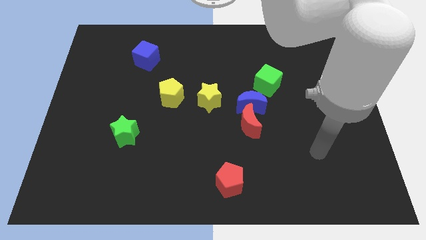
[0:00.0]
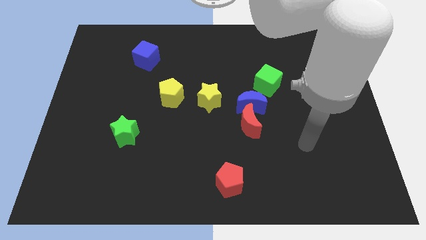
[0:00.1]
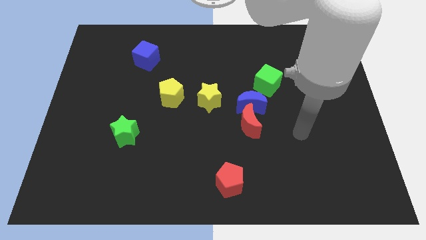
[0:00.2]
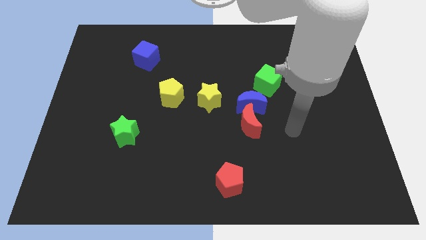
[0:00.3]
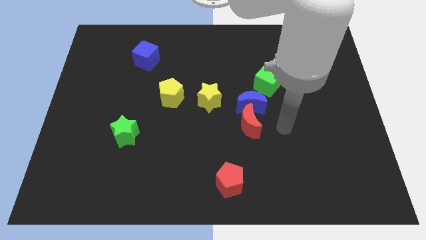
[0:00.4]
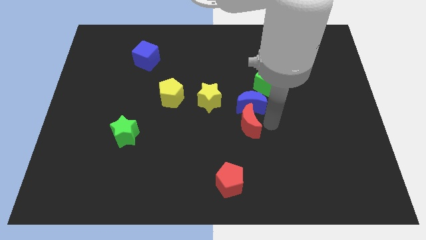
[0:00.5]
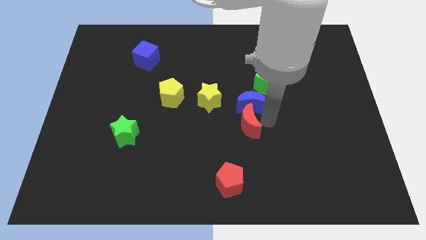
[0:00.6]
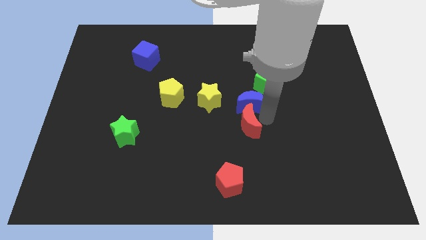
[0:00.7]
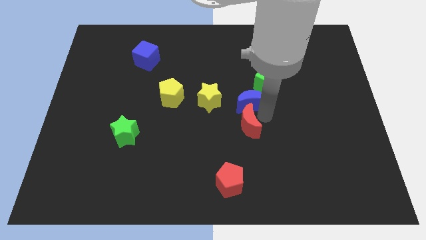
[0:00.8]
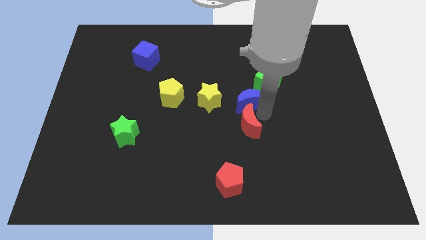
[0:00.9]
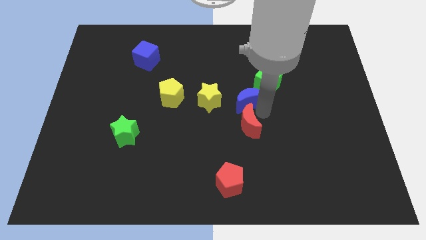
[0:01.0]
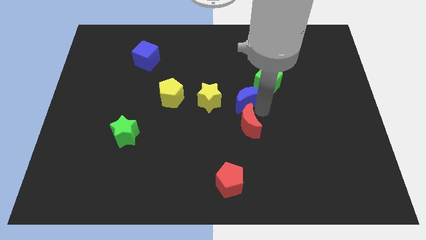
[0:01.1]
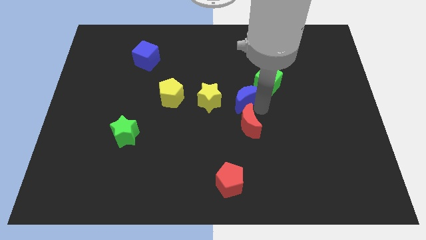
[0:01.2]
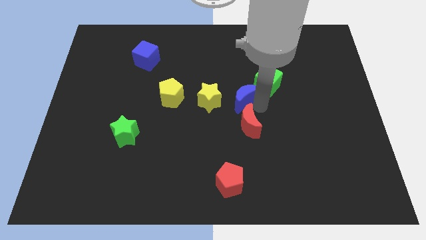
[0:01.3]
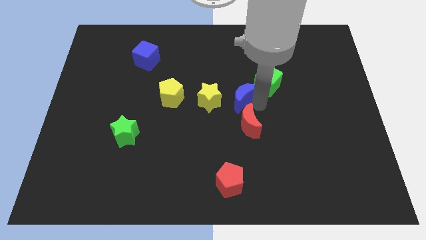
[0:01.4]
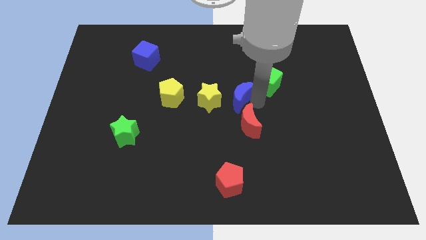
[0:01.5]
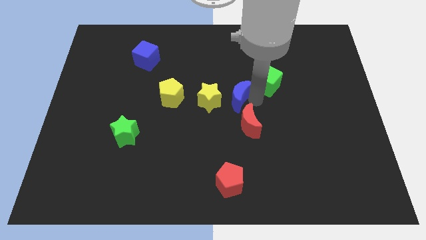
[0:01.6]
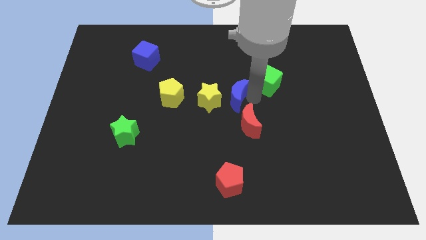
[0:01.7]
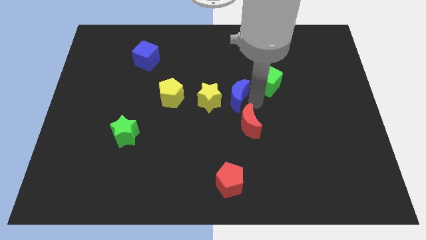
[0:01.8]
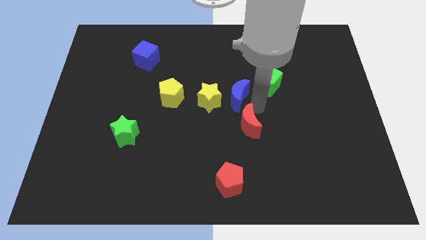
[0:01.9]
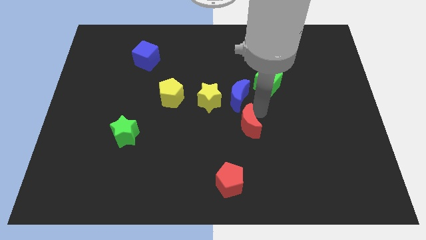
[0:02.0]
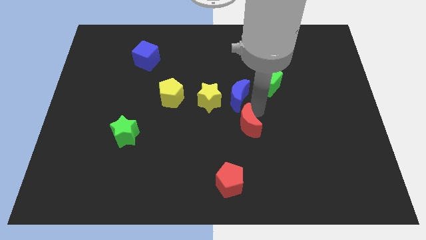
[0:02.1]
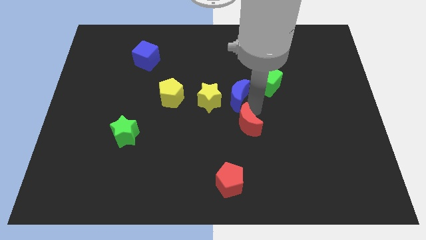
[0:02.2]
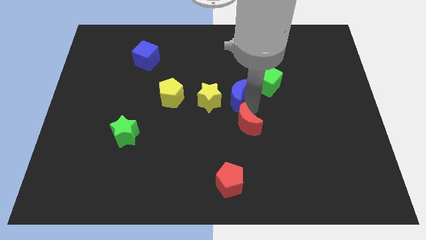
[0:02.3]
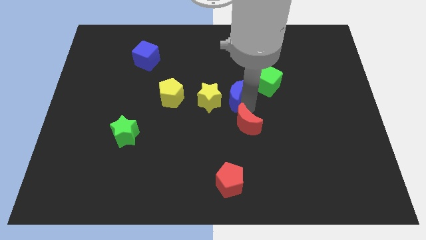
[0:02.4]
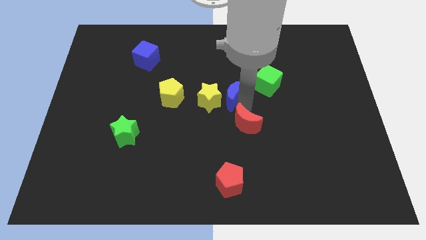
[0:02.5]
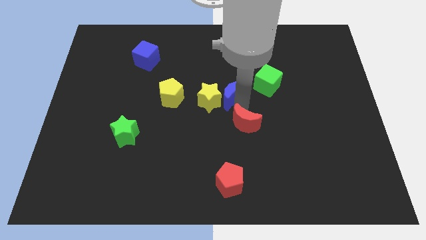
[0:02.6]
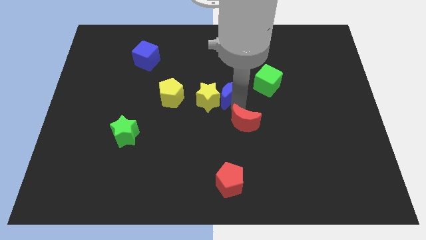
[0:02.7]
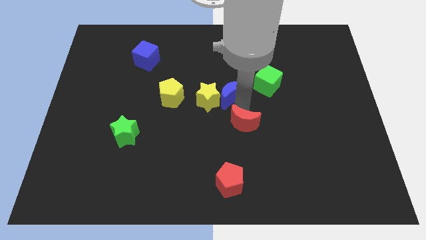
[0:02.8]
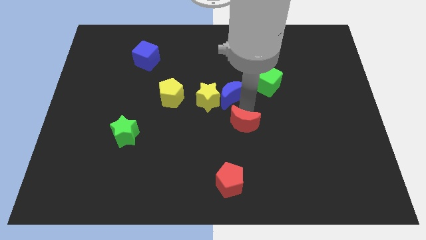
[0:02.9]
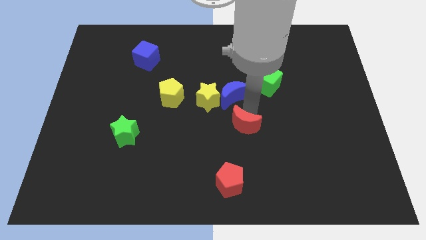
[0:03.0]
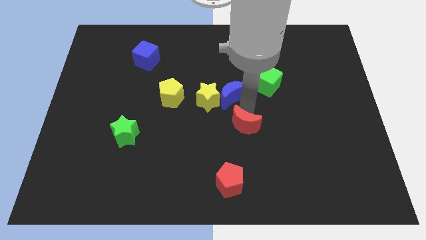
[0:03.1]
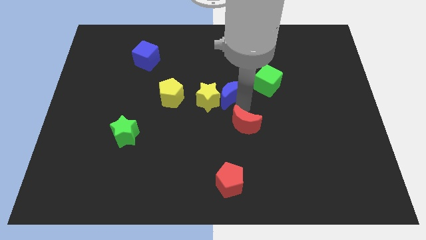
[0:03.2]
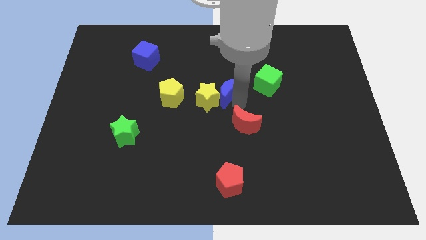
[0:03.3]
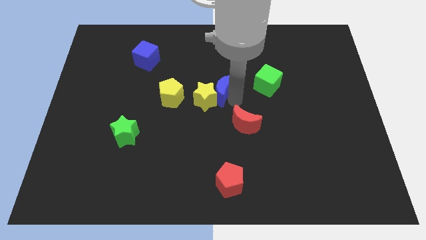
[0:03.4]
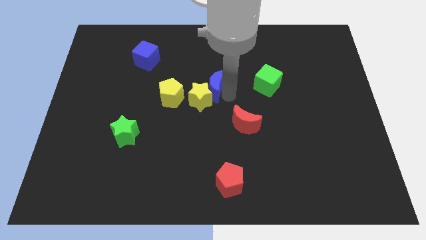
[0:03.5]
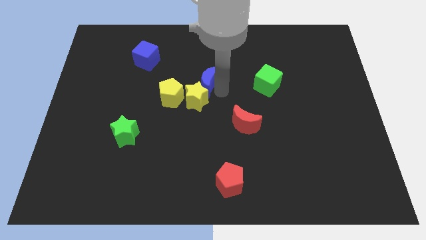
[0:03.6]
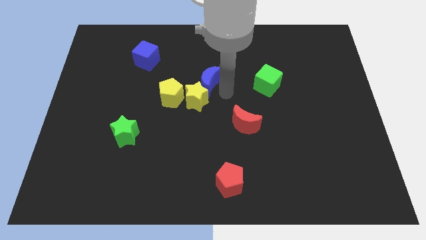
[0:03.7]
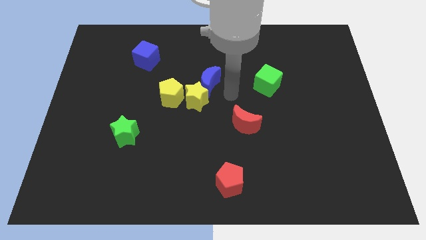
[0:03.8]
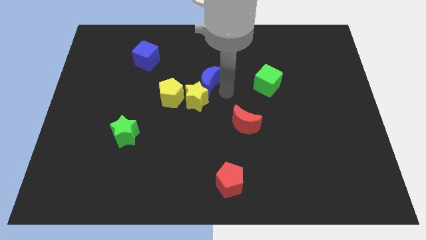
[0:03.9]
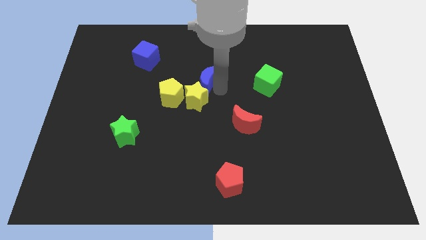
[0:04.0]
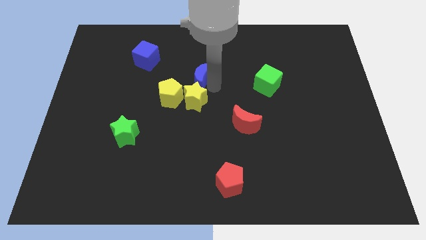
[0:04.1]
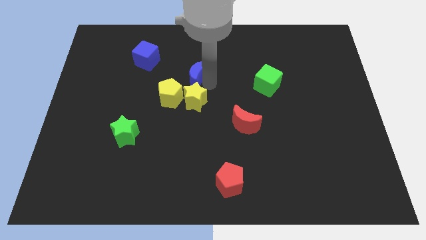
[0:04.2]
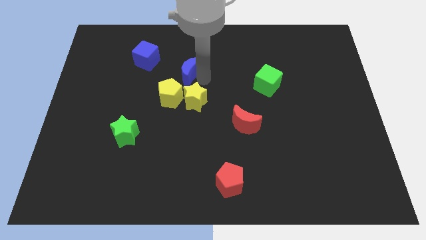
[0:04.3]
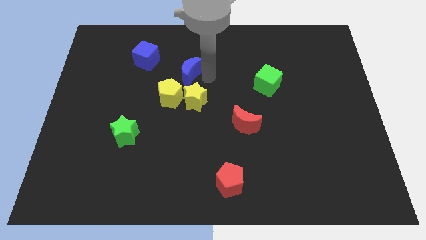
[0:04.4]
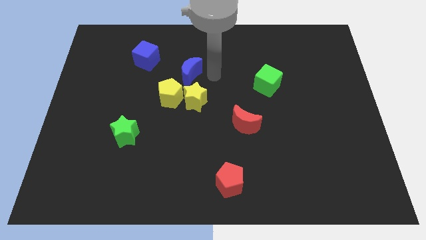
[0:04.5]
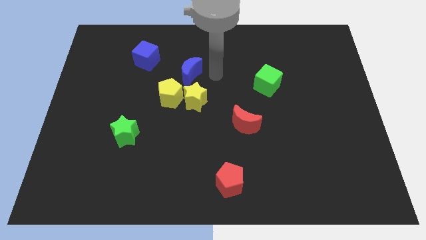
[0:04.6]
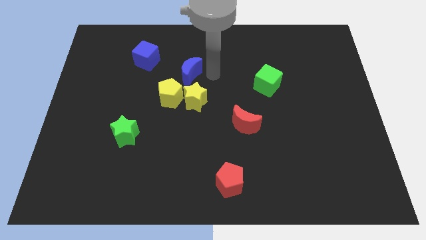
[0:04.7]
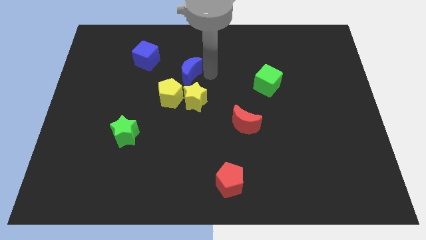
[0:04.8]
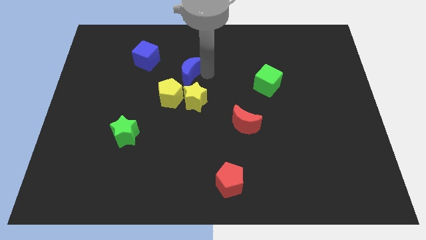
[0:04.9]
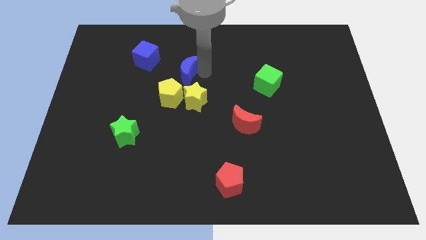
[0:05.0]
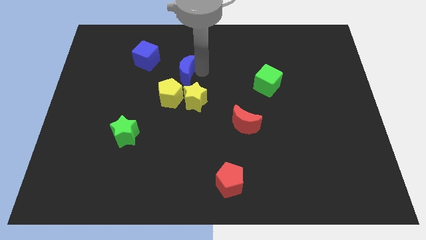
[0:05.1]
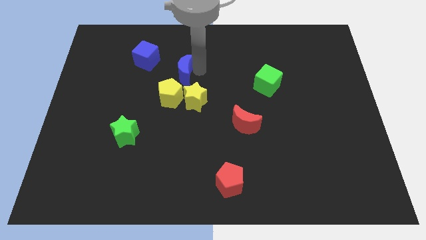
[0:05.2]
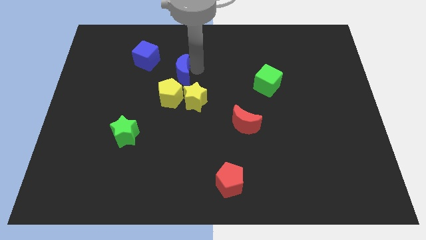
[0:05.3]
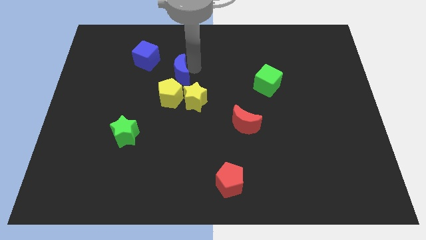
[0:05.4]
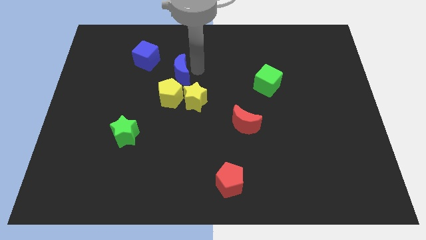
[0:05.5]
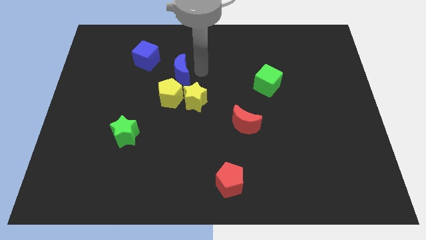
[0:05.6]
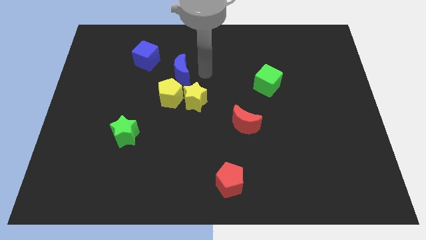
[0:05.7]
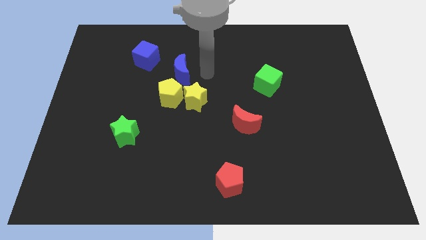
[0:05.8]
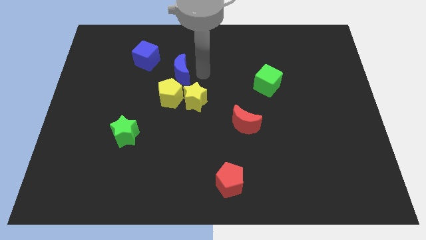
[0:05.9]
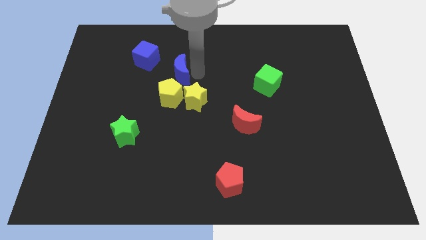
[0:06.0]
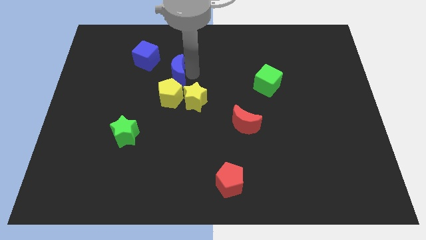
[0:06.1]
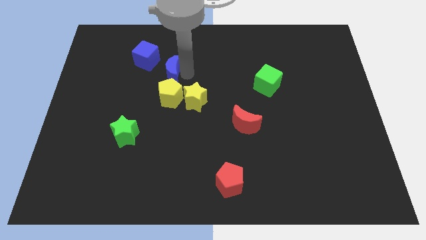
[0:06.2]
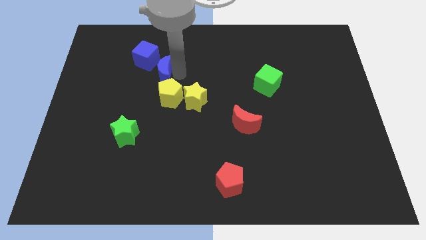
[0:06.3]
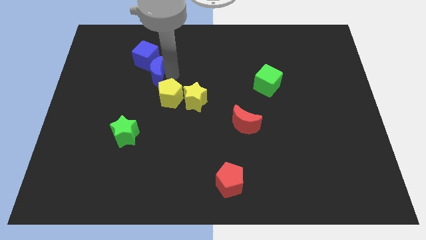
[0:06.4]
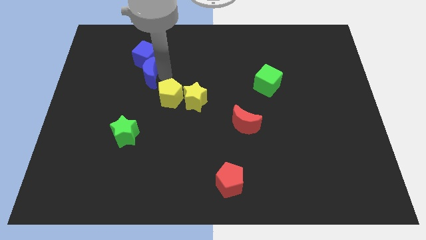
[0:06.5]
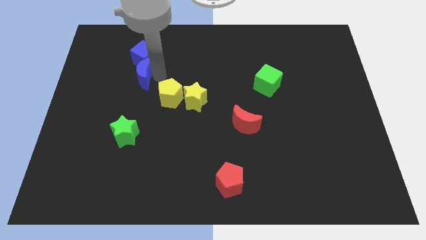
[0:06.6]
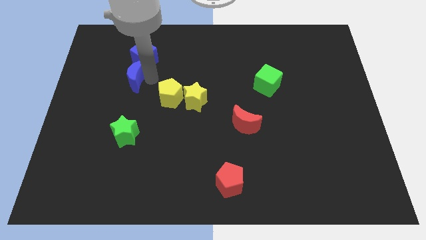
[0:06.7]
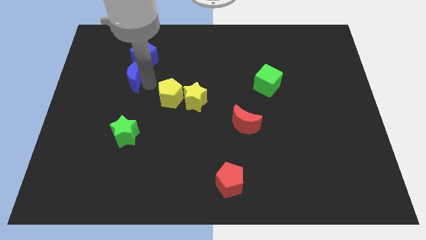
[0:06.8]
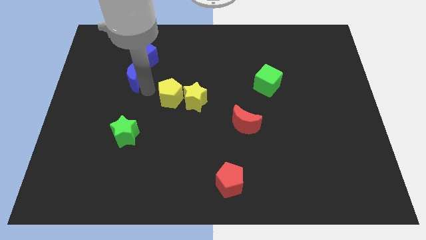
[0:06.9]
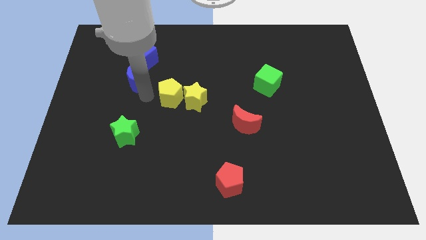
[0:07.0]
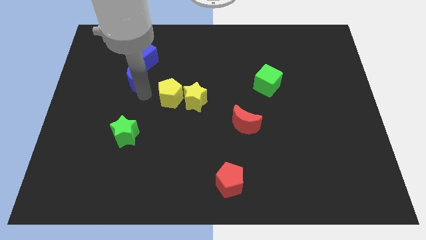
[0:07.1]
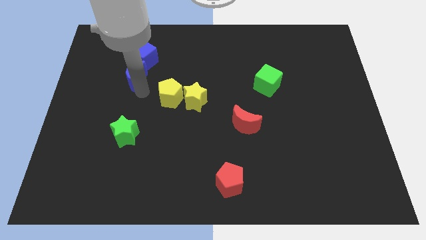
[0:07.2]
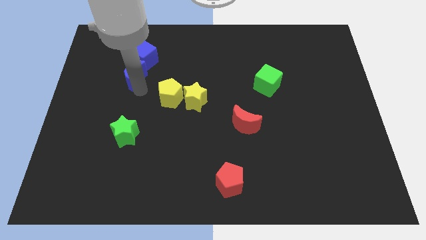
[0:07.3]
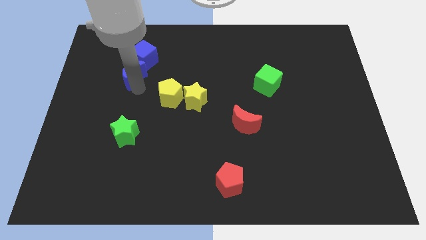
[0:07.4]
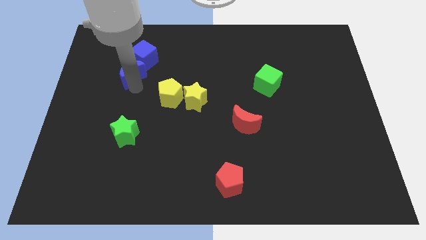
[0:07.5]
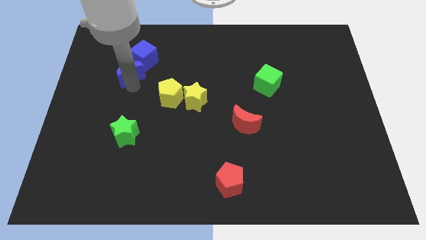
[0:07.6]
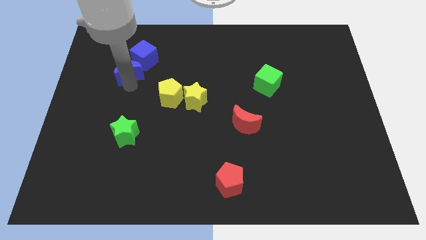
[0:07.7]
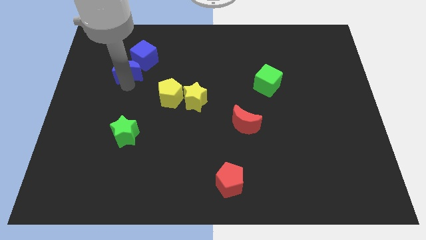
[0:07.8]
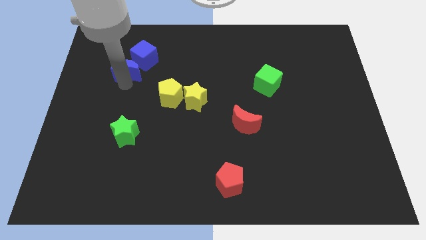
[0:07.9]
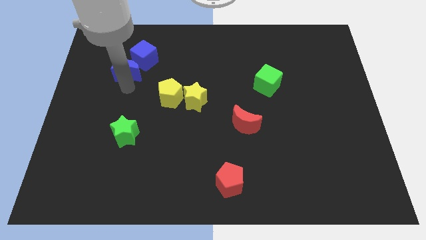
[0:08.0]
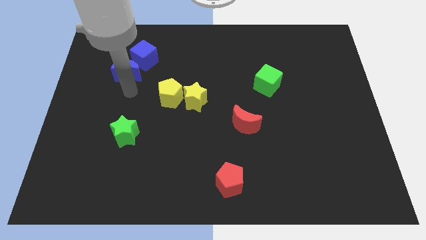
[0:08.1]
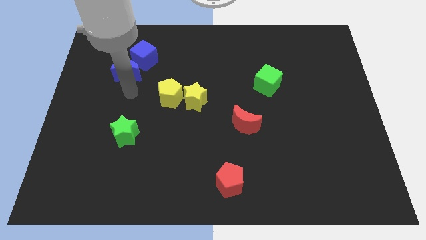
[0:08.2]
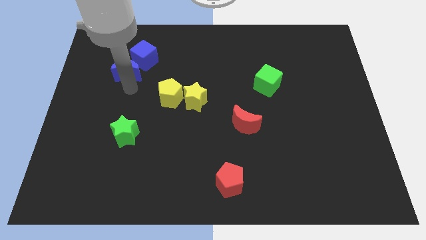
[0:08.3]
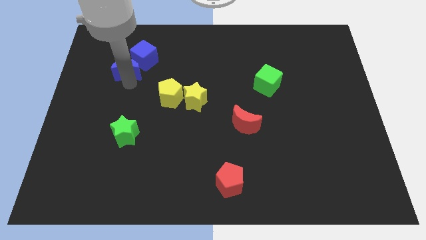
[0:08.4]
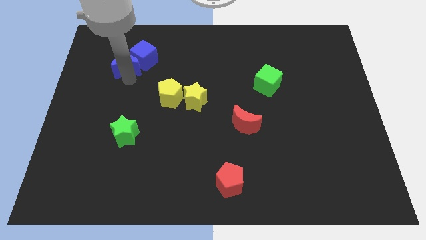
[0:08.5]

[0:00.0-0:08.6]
move the blue moon just left of the blue cube
